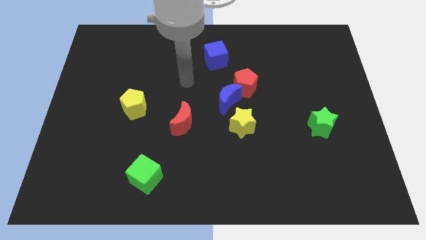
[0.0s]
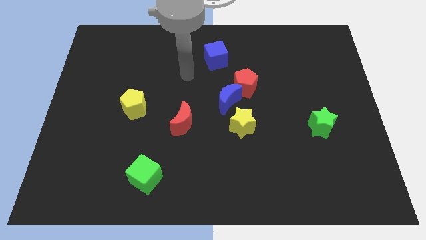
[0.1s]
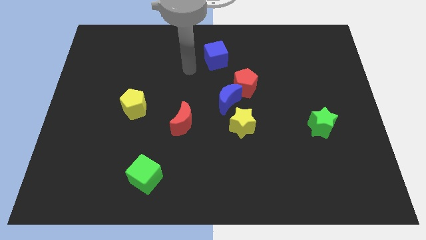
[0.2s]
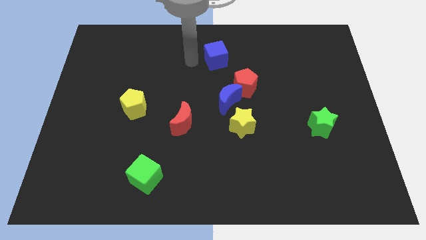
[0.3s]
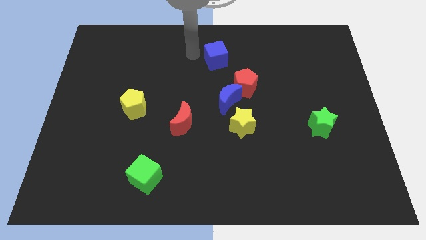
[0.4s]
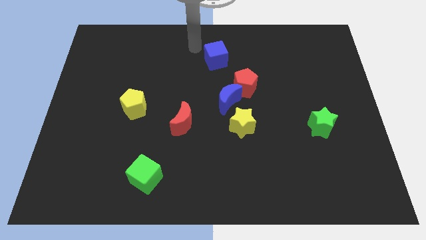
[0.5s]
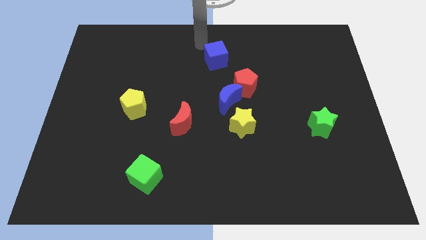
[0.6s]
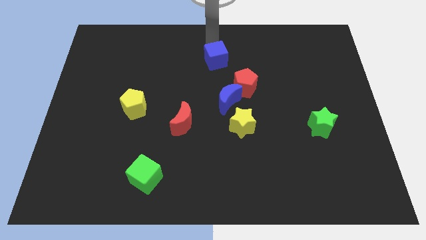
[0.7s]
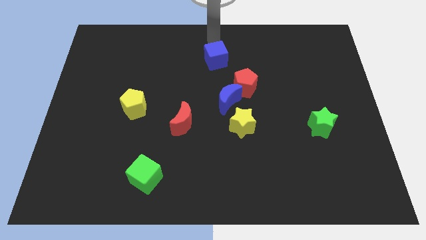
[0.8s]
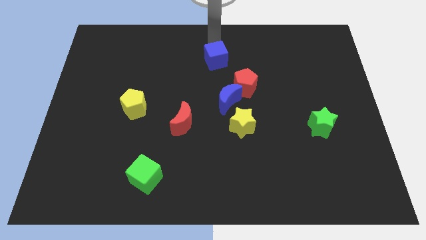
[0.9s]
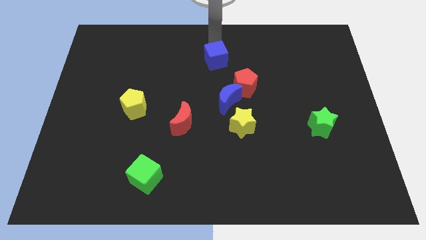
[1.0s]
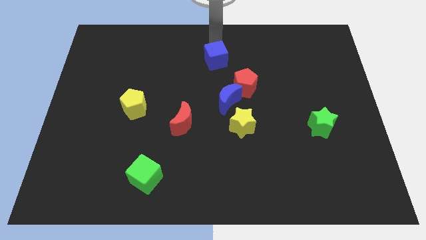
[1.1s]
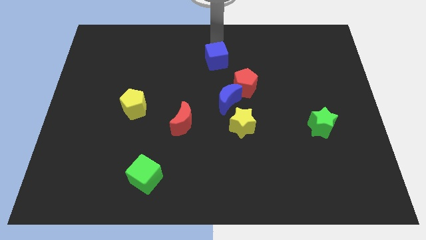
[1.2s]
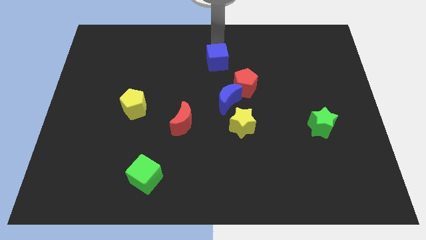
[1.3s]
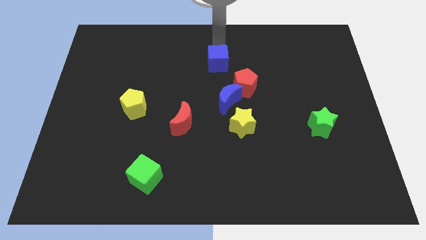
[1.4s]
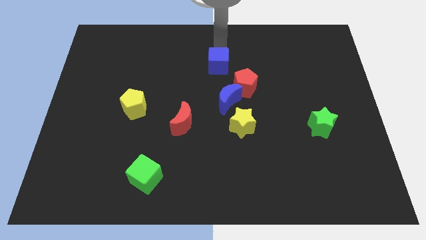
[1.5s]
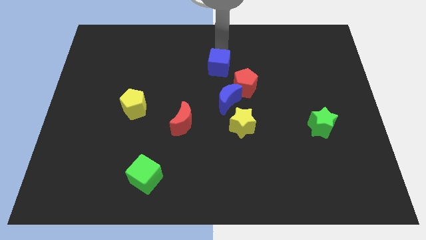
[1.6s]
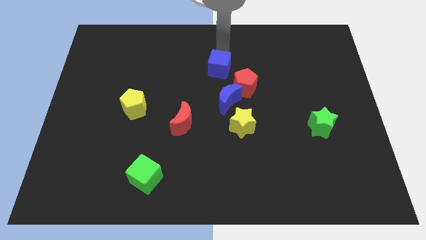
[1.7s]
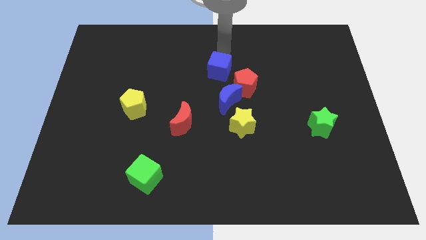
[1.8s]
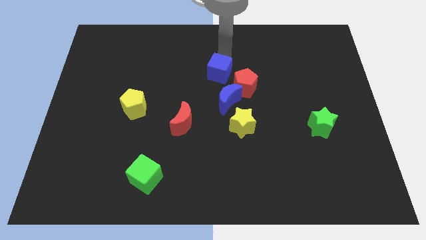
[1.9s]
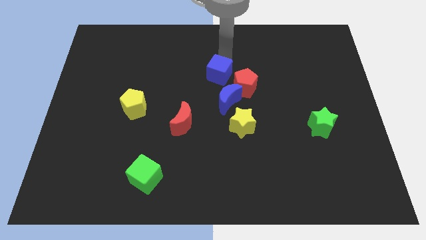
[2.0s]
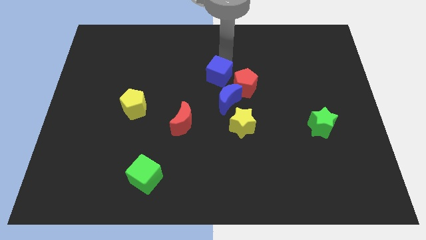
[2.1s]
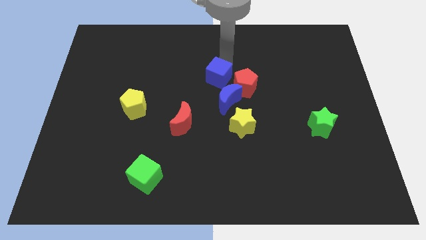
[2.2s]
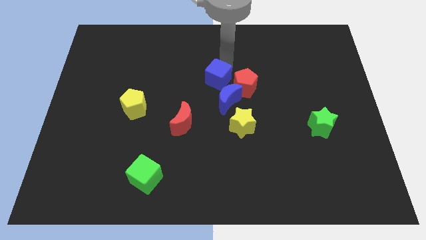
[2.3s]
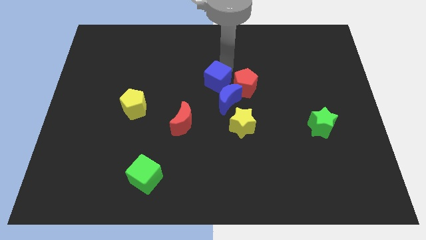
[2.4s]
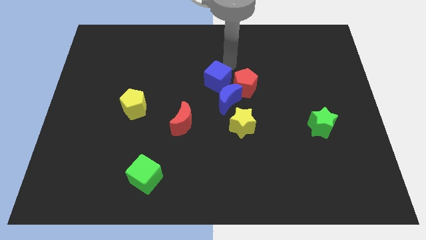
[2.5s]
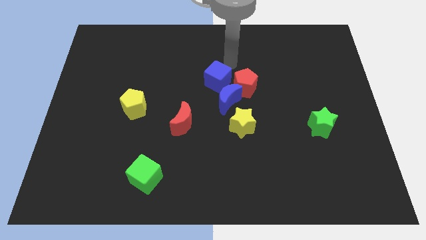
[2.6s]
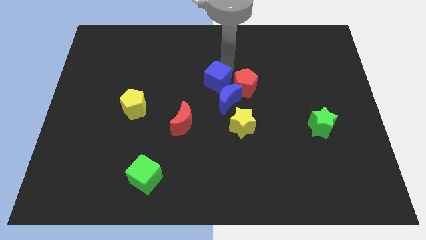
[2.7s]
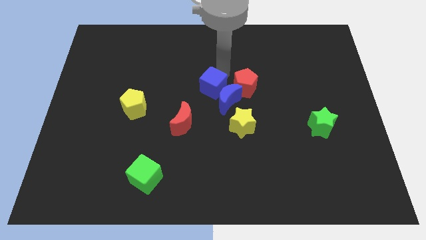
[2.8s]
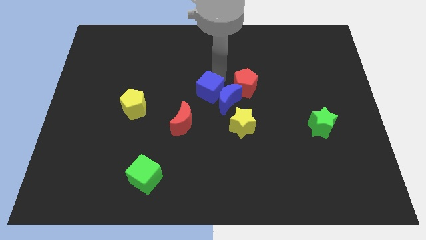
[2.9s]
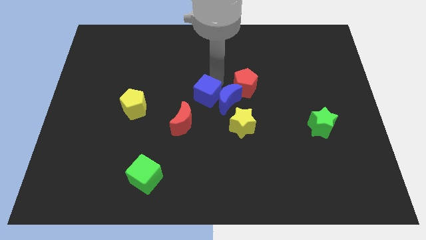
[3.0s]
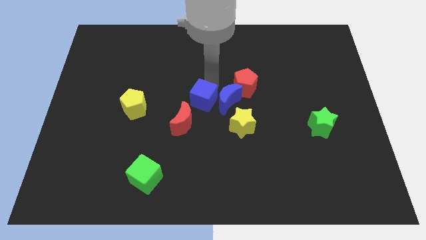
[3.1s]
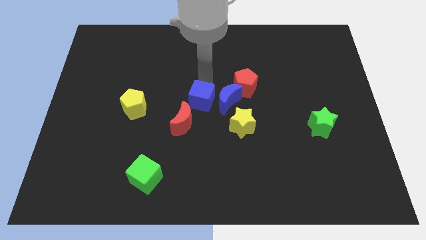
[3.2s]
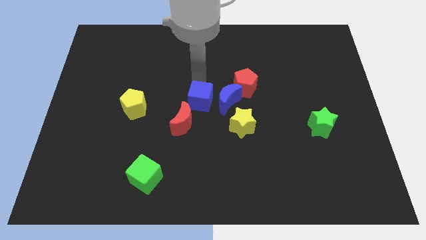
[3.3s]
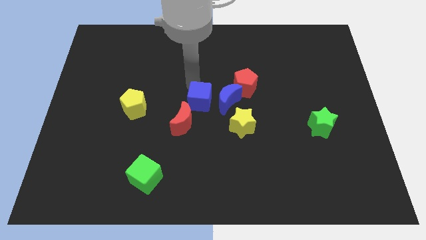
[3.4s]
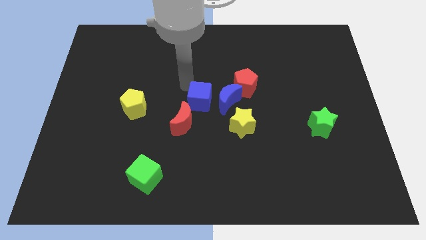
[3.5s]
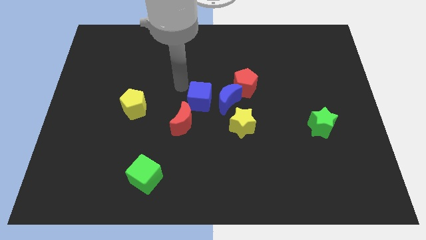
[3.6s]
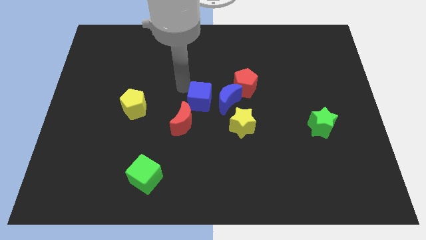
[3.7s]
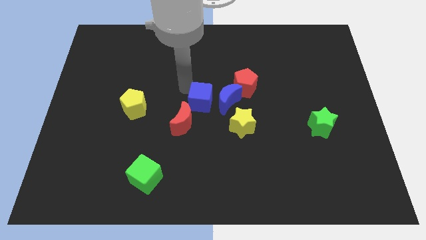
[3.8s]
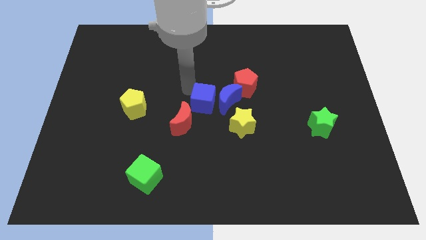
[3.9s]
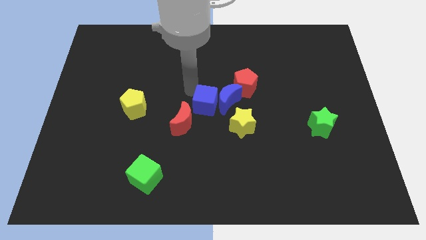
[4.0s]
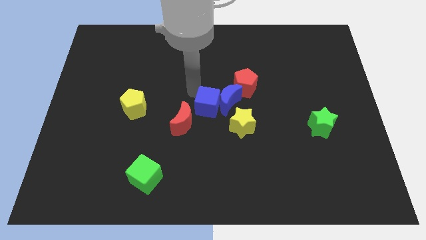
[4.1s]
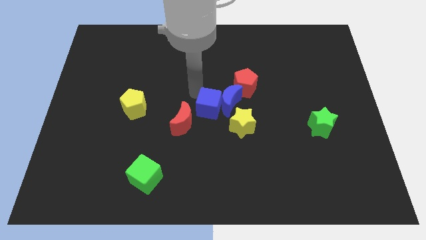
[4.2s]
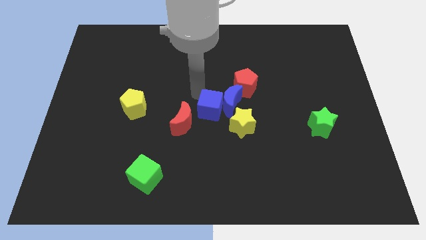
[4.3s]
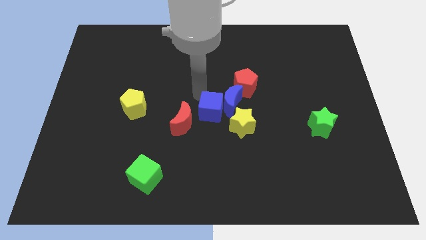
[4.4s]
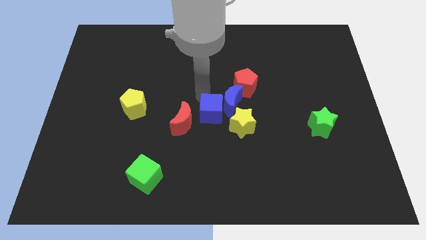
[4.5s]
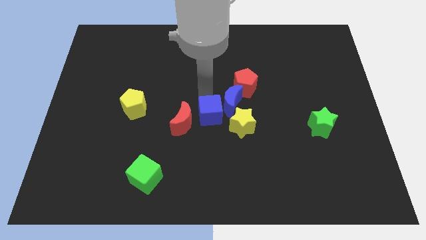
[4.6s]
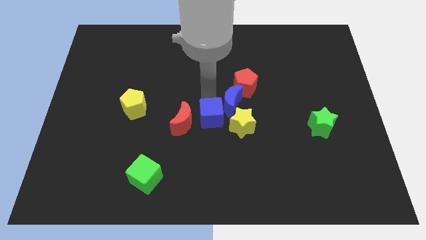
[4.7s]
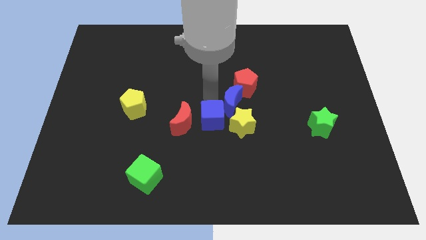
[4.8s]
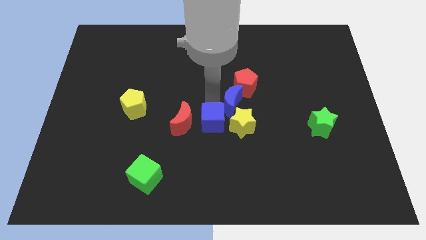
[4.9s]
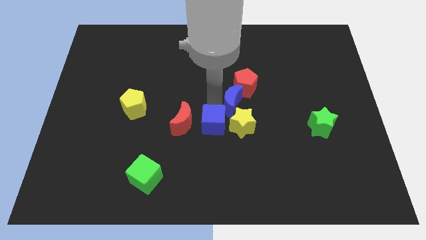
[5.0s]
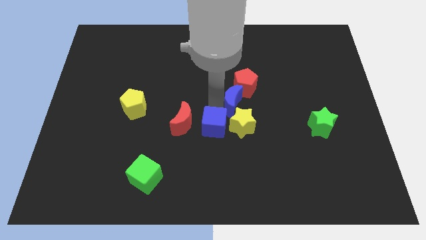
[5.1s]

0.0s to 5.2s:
move the blue cube to the yellow star

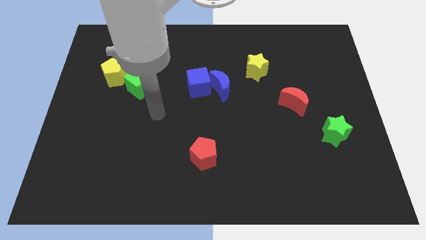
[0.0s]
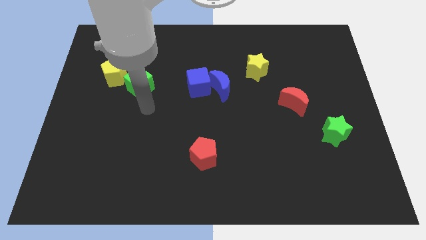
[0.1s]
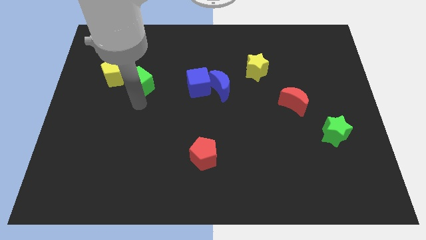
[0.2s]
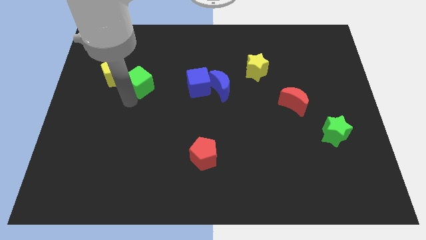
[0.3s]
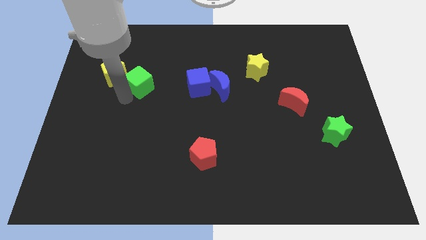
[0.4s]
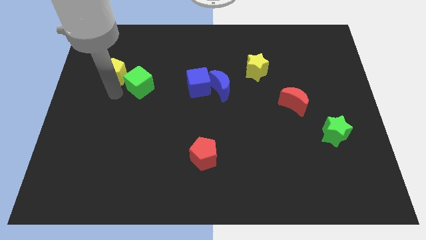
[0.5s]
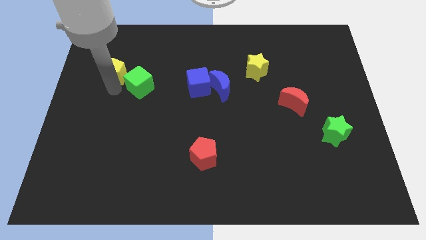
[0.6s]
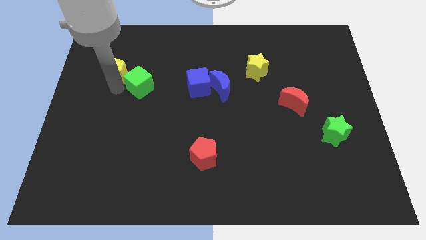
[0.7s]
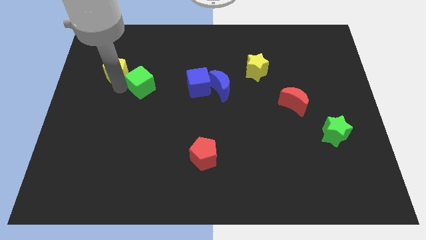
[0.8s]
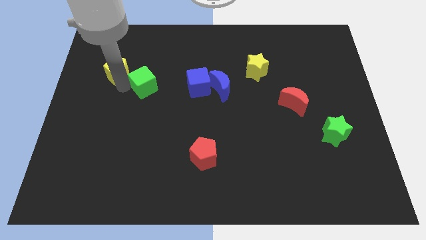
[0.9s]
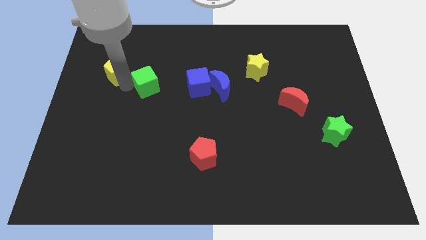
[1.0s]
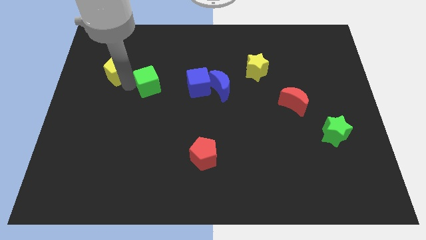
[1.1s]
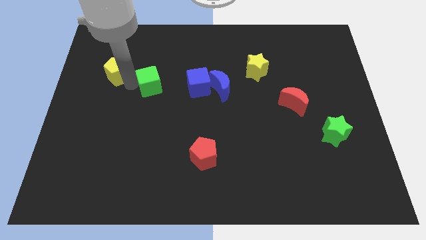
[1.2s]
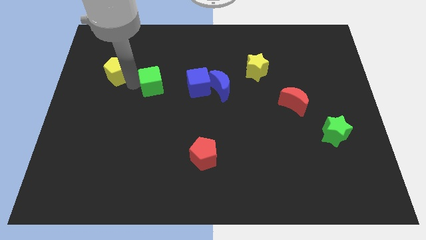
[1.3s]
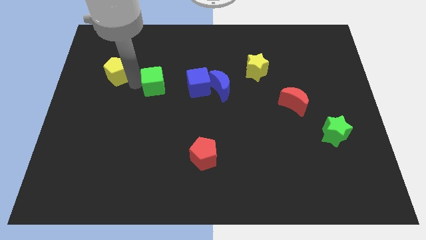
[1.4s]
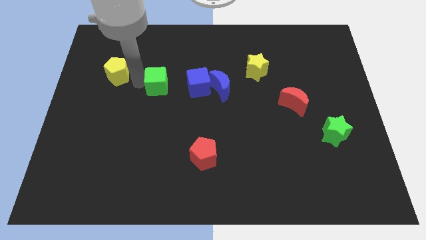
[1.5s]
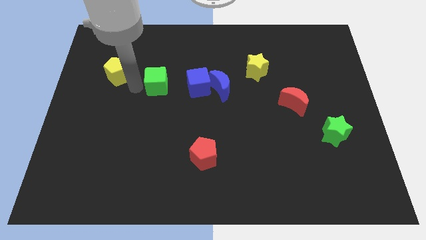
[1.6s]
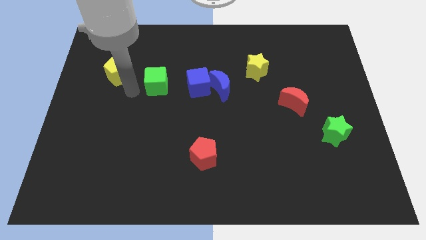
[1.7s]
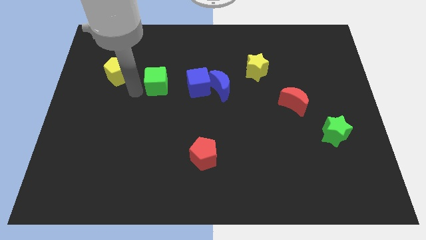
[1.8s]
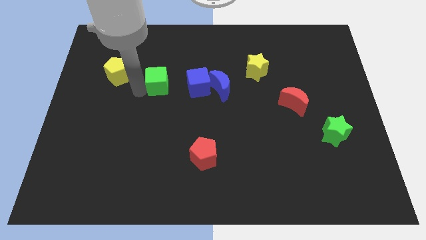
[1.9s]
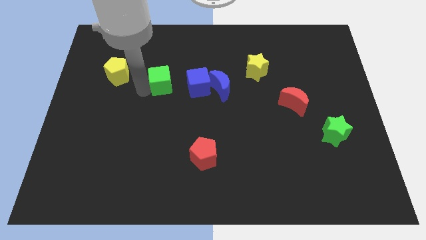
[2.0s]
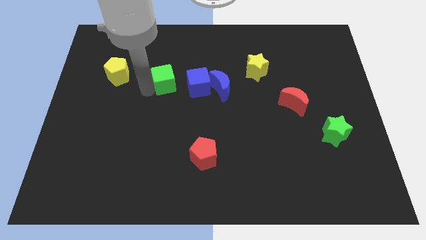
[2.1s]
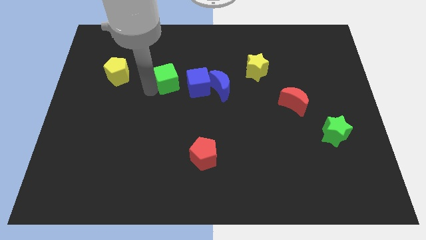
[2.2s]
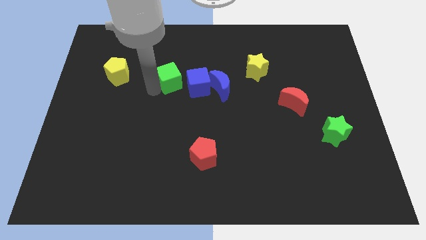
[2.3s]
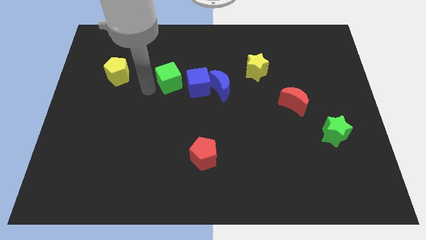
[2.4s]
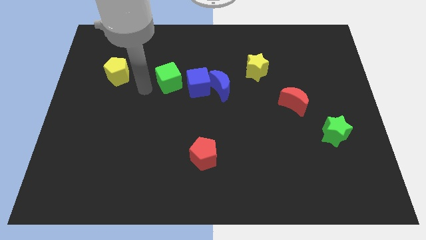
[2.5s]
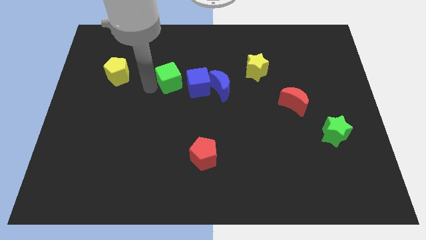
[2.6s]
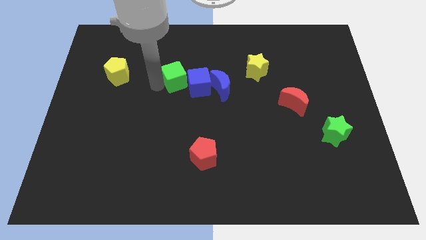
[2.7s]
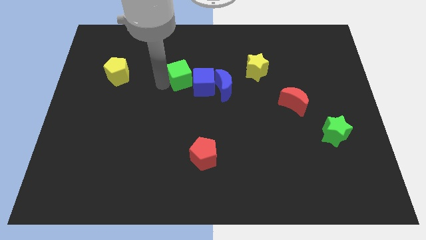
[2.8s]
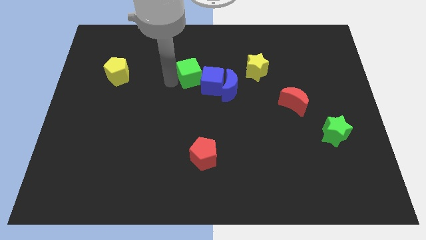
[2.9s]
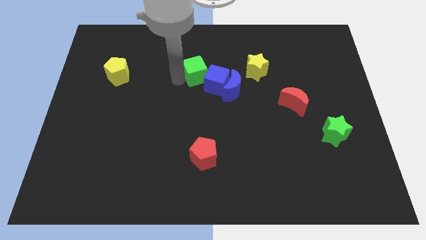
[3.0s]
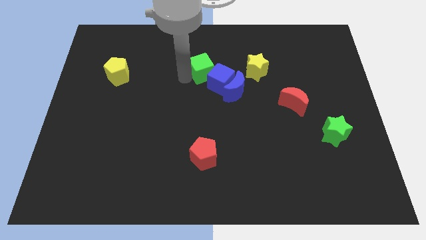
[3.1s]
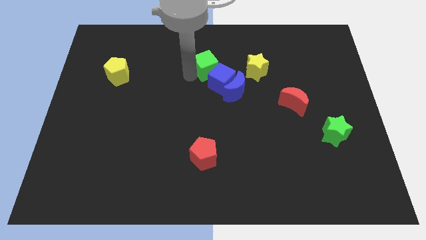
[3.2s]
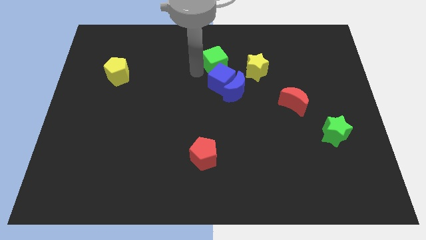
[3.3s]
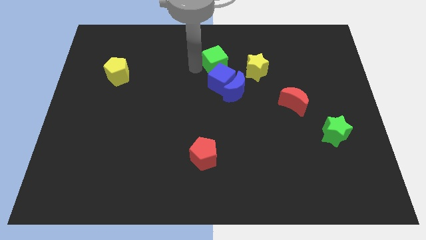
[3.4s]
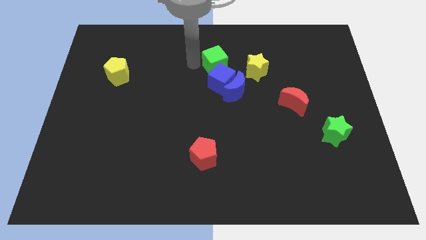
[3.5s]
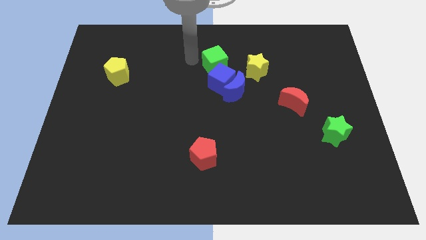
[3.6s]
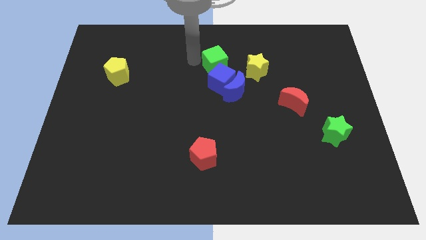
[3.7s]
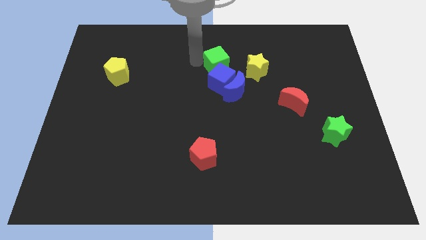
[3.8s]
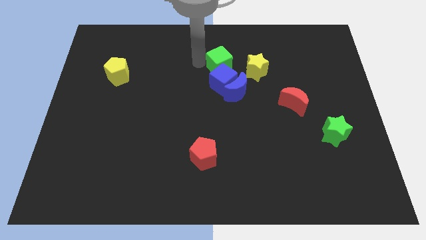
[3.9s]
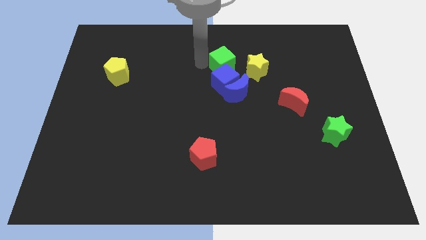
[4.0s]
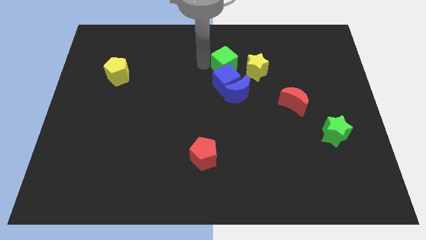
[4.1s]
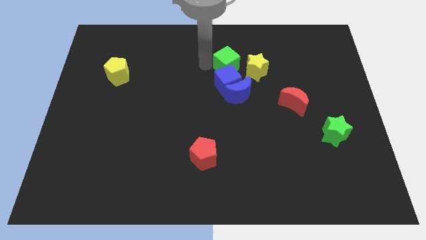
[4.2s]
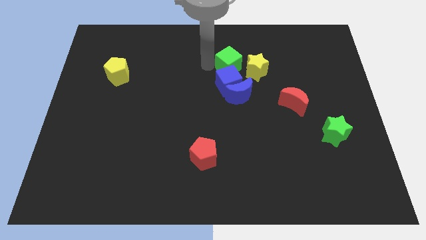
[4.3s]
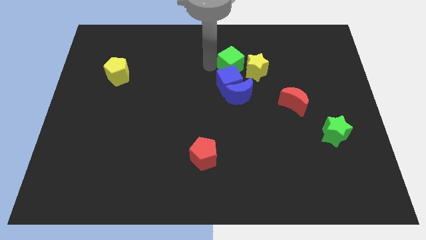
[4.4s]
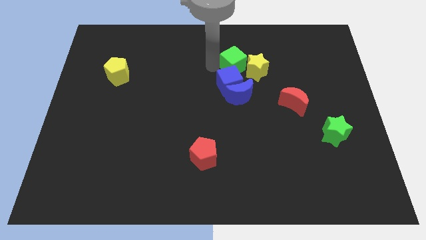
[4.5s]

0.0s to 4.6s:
put the green cube next to the yellow star
